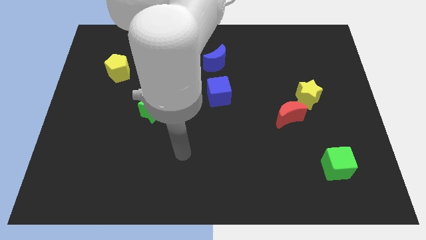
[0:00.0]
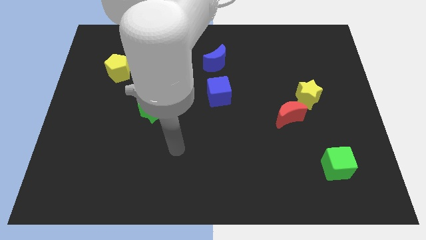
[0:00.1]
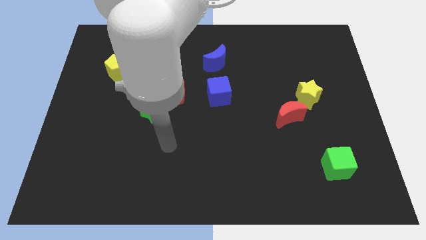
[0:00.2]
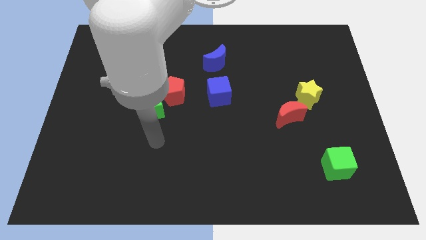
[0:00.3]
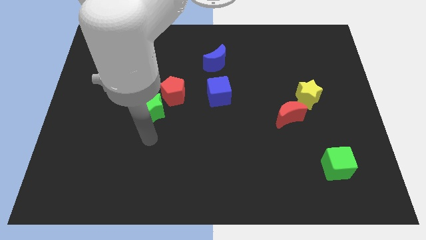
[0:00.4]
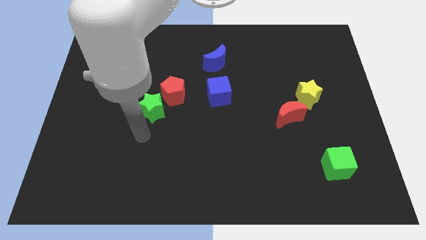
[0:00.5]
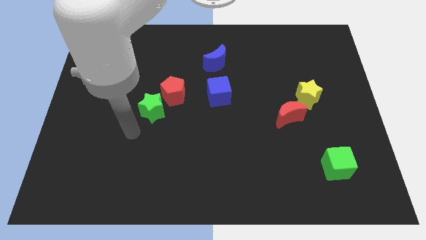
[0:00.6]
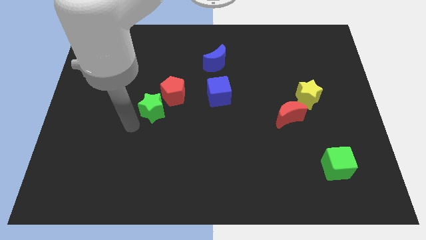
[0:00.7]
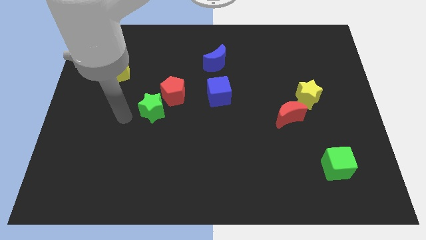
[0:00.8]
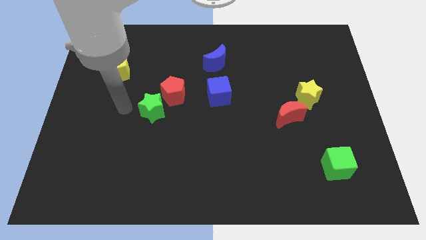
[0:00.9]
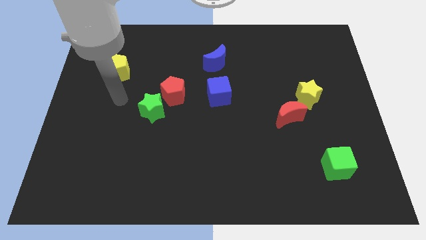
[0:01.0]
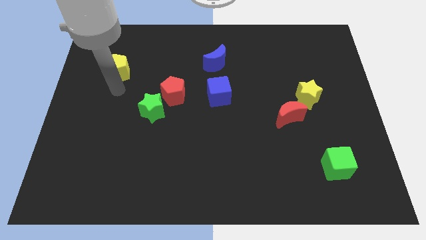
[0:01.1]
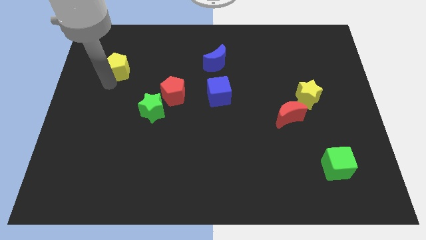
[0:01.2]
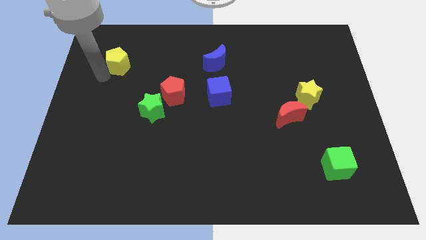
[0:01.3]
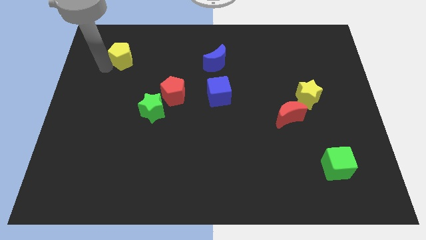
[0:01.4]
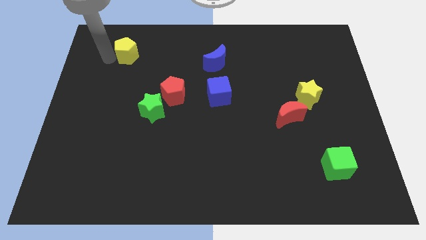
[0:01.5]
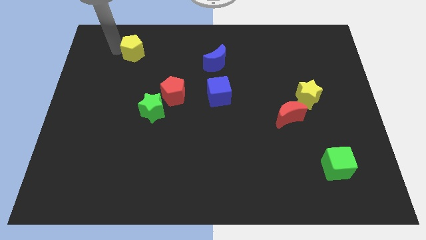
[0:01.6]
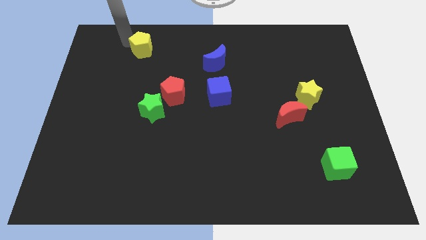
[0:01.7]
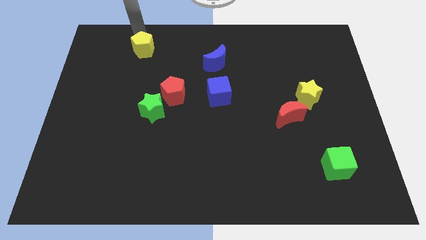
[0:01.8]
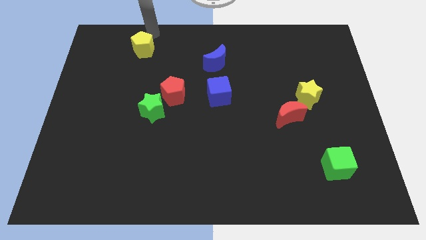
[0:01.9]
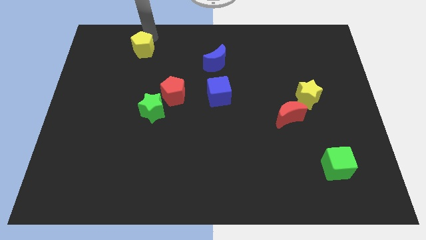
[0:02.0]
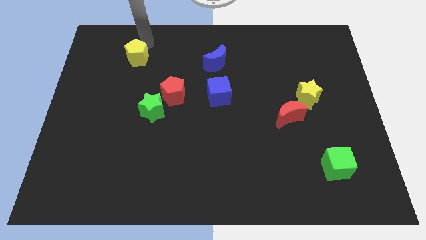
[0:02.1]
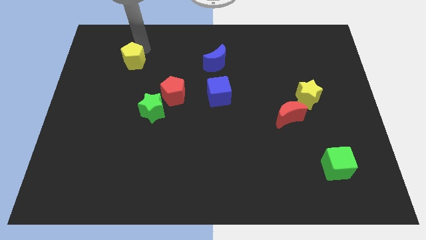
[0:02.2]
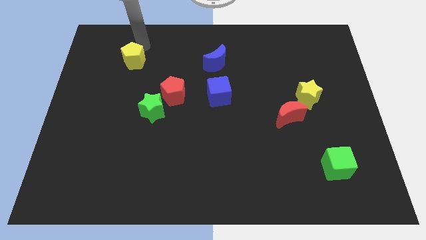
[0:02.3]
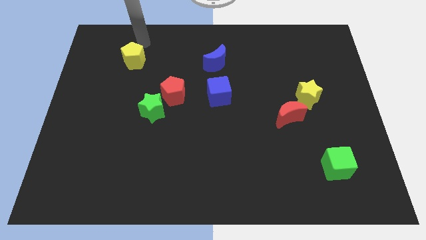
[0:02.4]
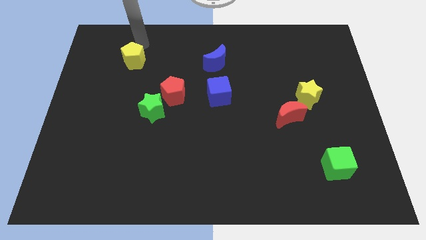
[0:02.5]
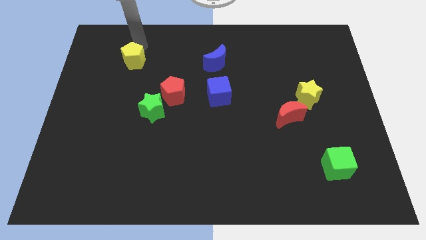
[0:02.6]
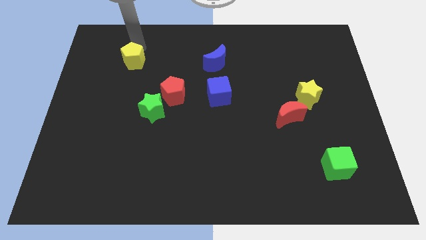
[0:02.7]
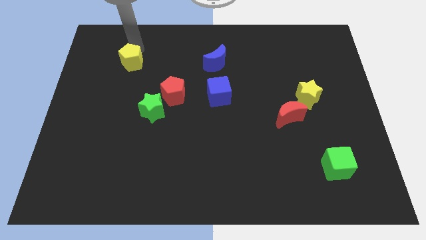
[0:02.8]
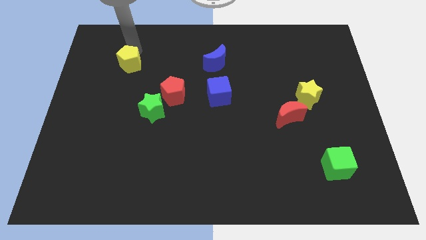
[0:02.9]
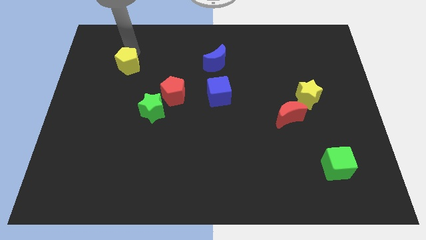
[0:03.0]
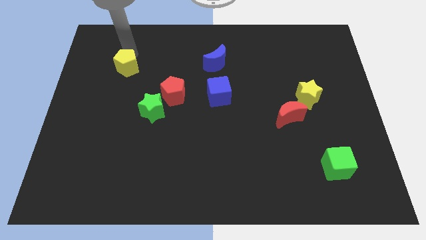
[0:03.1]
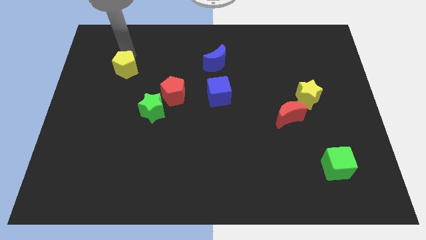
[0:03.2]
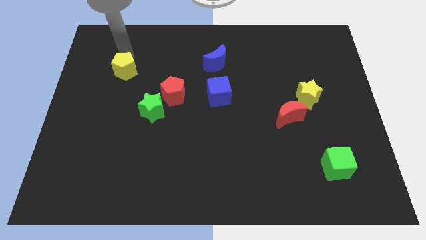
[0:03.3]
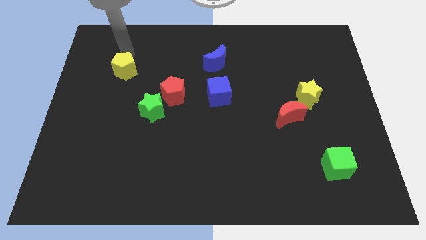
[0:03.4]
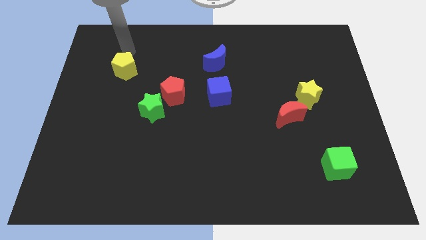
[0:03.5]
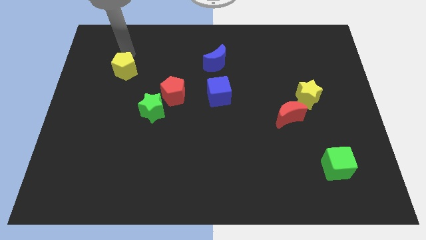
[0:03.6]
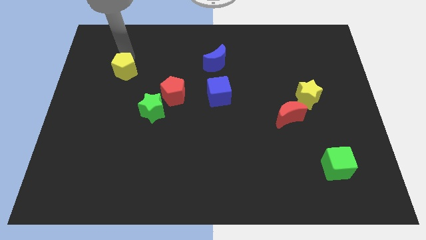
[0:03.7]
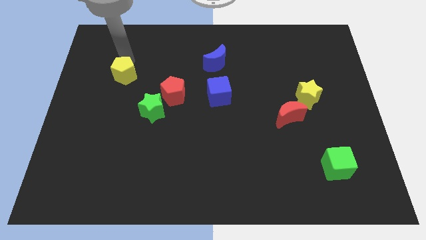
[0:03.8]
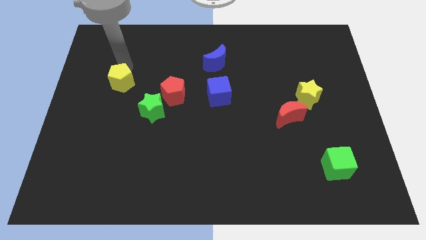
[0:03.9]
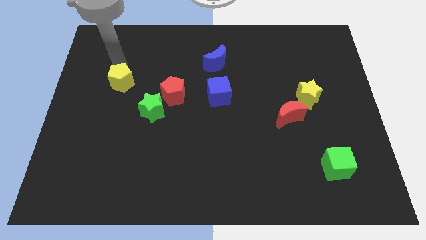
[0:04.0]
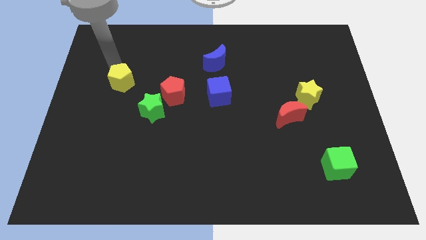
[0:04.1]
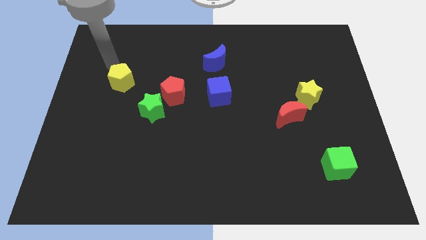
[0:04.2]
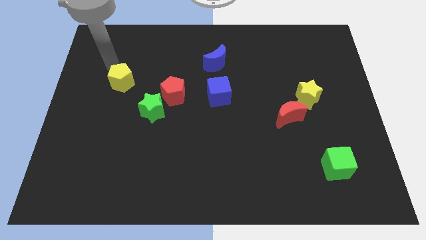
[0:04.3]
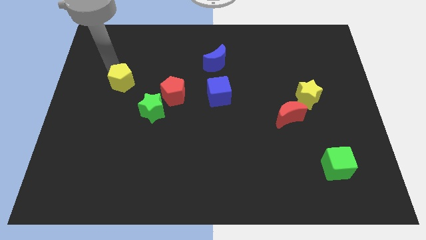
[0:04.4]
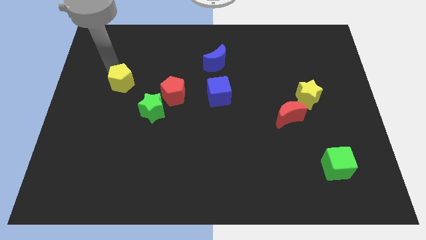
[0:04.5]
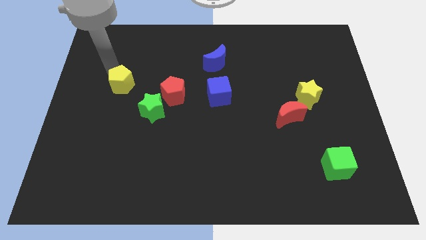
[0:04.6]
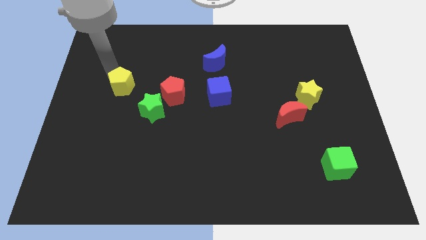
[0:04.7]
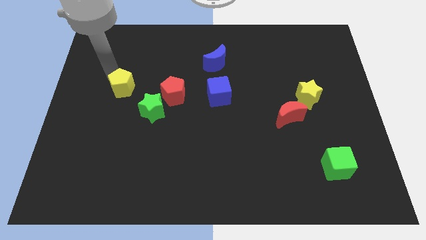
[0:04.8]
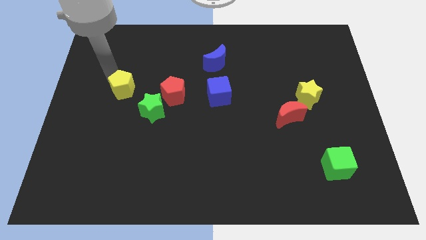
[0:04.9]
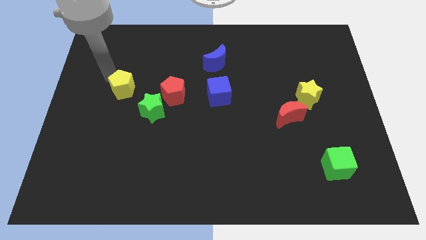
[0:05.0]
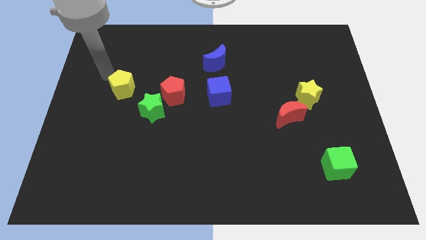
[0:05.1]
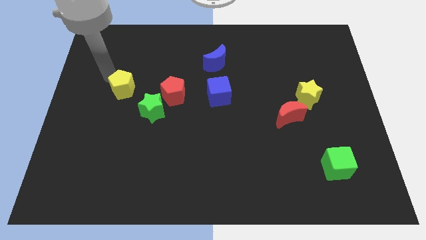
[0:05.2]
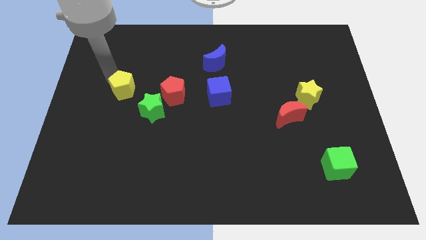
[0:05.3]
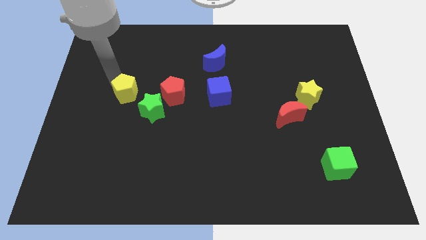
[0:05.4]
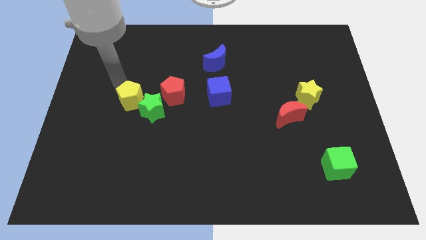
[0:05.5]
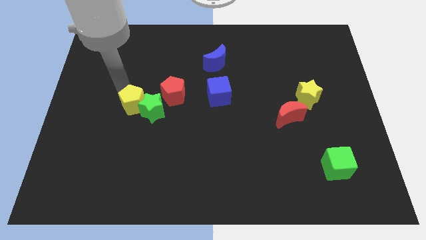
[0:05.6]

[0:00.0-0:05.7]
slide the yellow pentagon next to the green star

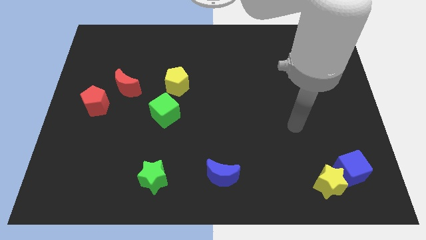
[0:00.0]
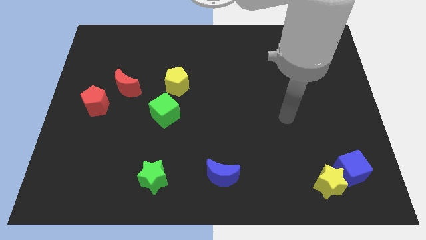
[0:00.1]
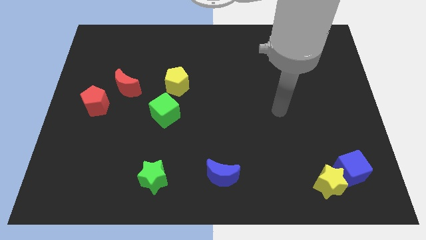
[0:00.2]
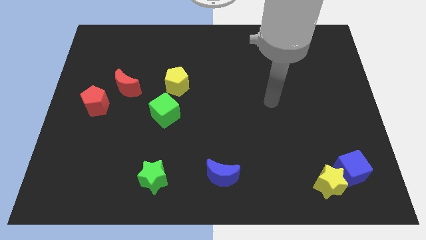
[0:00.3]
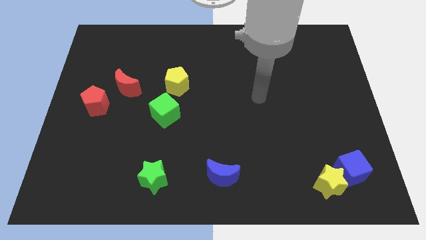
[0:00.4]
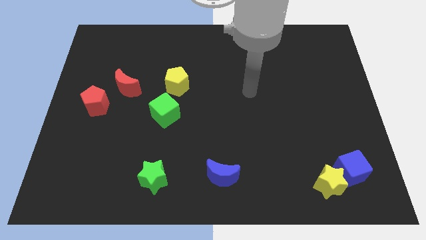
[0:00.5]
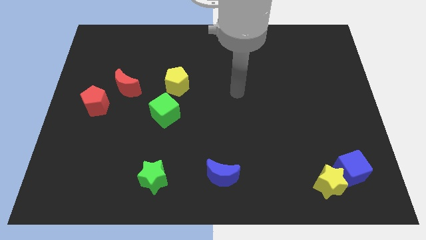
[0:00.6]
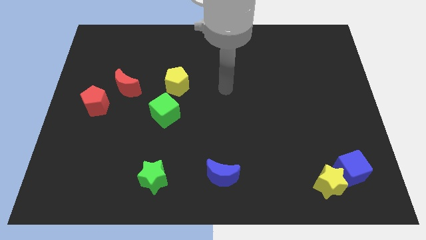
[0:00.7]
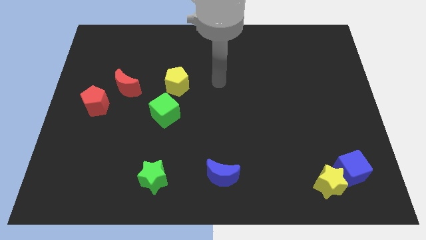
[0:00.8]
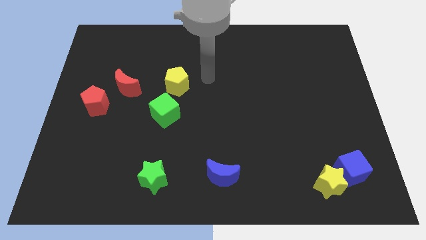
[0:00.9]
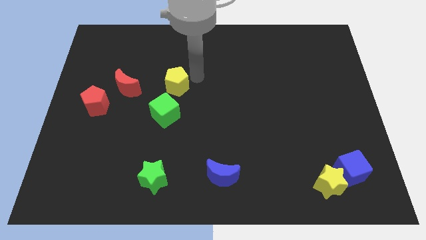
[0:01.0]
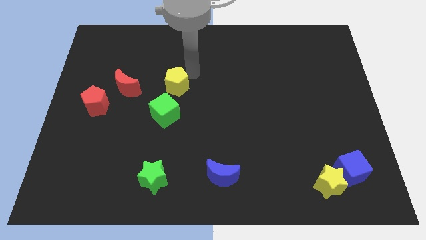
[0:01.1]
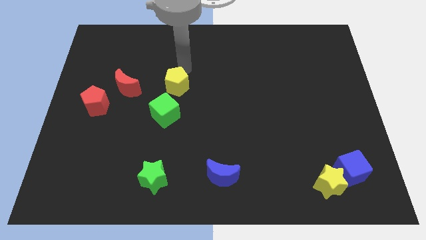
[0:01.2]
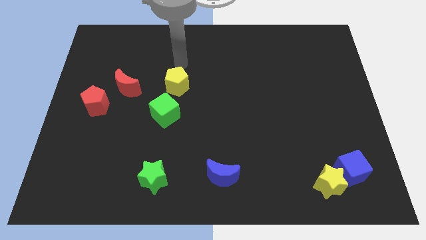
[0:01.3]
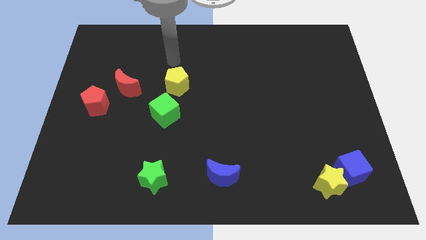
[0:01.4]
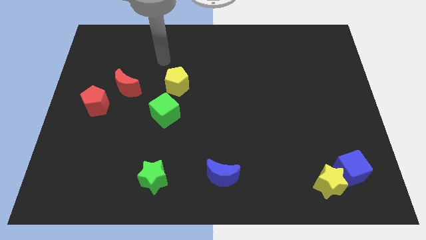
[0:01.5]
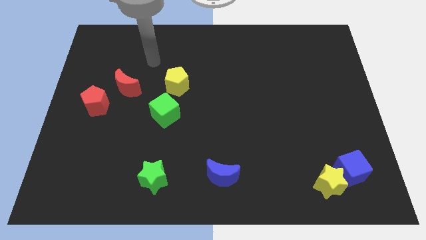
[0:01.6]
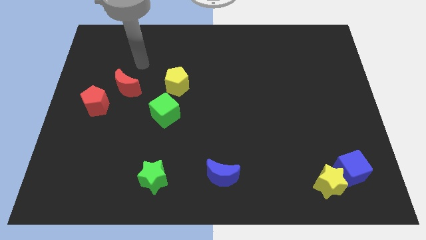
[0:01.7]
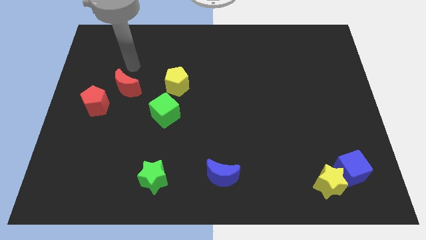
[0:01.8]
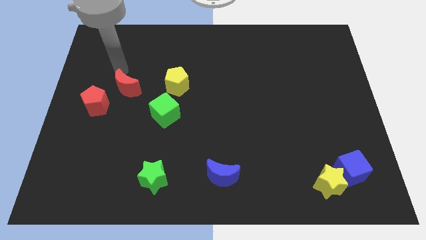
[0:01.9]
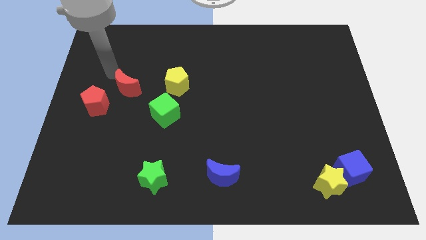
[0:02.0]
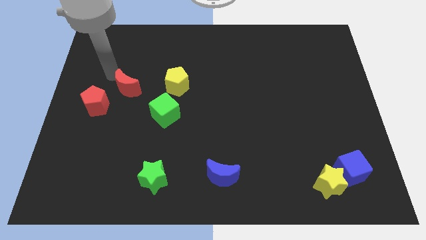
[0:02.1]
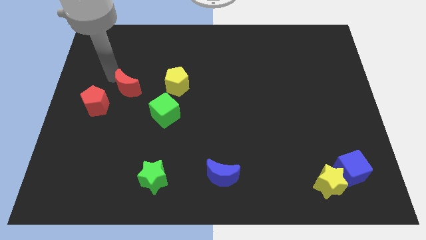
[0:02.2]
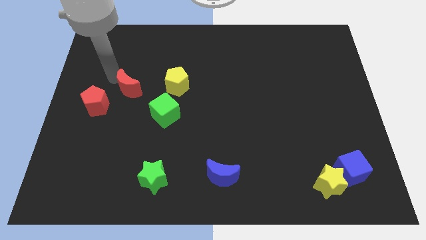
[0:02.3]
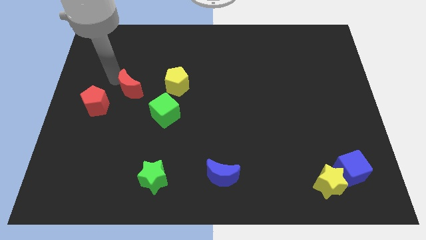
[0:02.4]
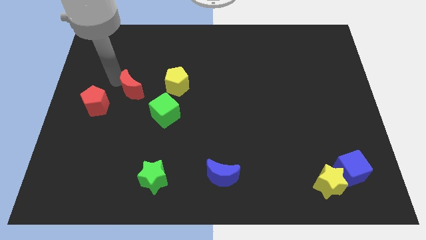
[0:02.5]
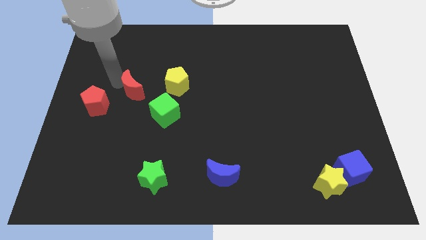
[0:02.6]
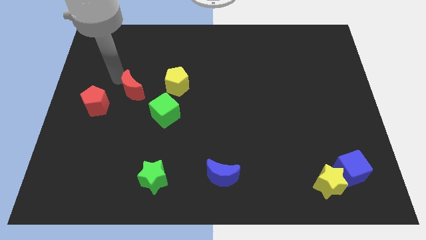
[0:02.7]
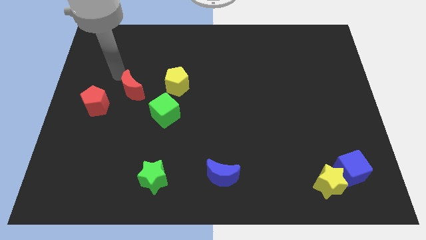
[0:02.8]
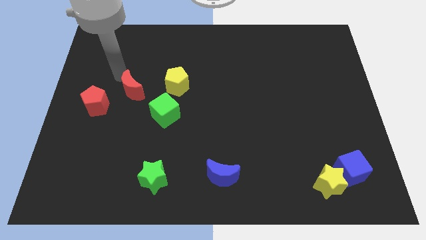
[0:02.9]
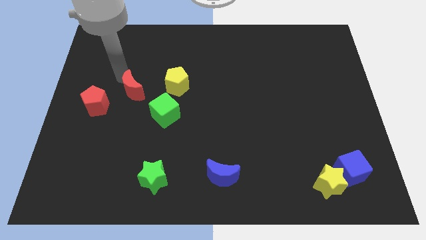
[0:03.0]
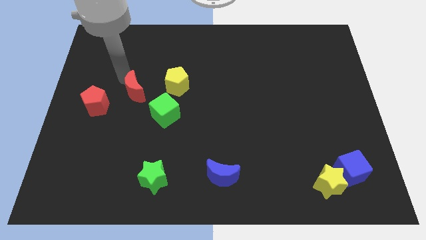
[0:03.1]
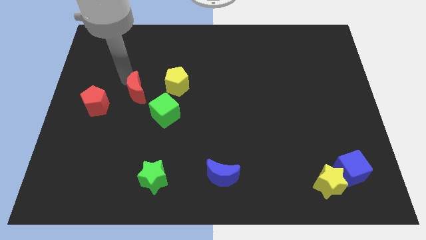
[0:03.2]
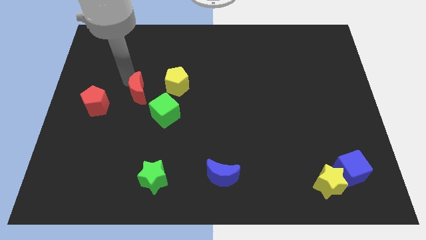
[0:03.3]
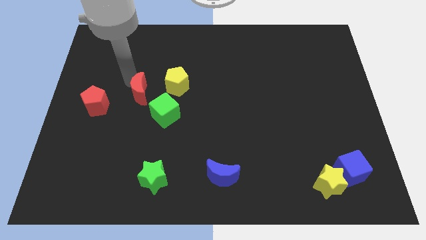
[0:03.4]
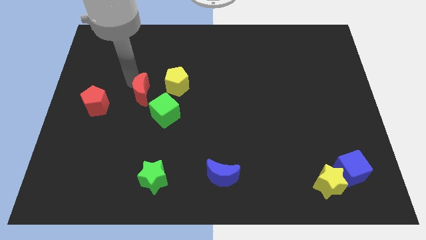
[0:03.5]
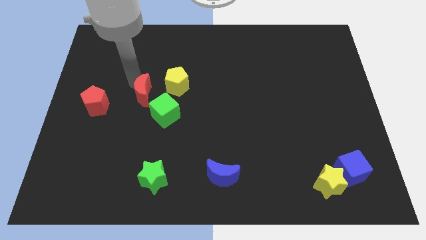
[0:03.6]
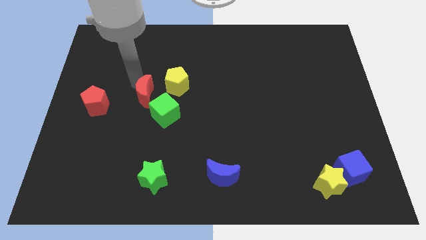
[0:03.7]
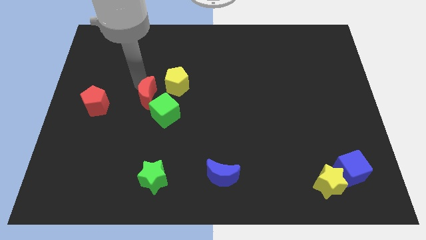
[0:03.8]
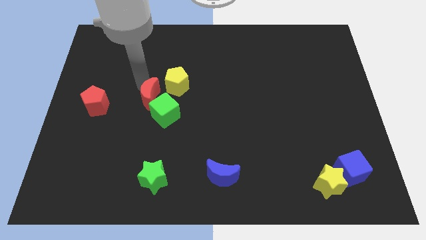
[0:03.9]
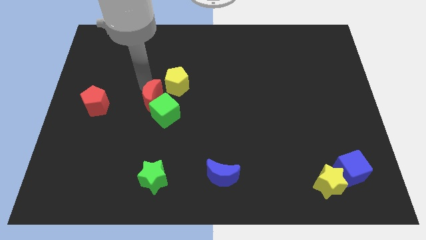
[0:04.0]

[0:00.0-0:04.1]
put the red moon towards the green cube
